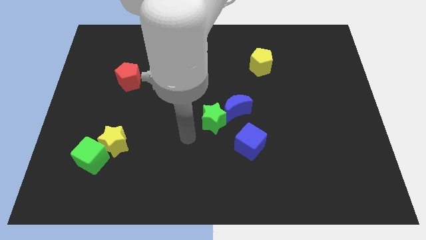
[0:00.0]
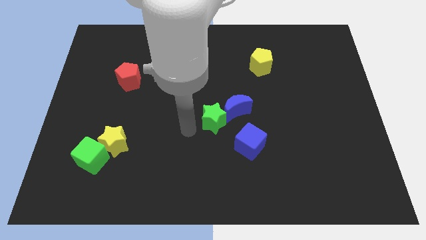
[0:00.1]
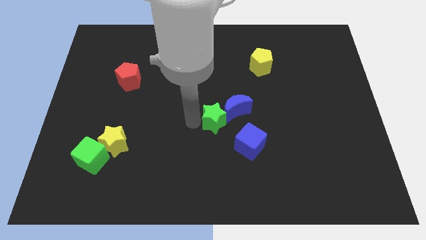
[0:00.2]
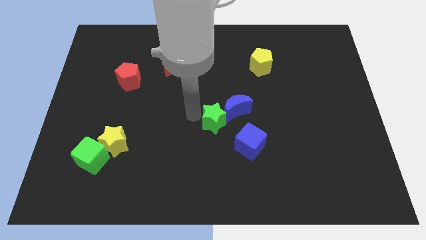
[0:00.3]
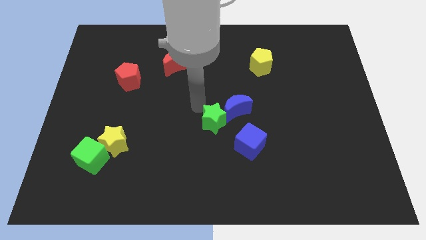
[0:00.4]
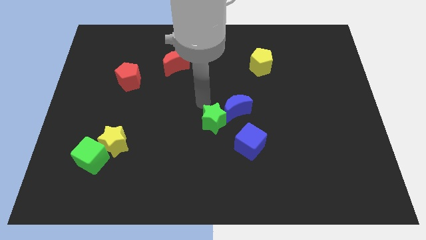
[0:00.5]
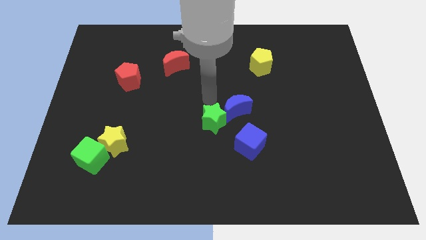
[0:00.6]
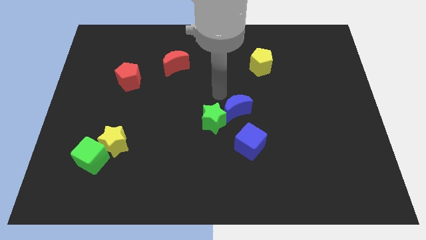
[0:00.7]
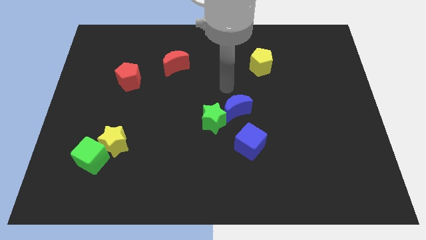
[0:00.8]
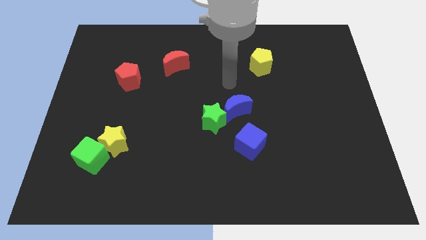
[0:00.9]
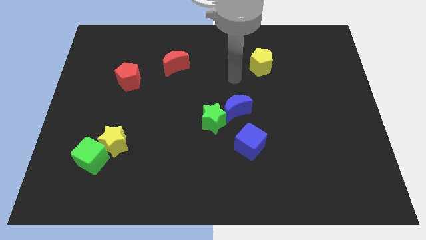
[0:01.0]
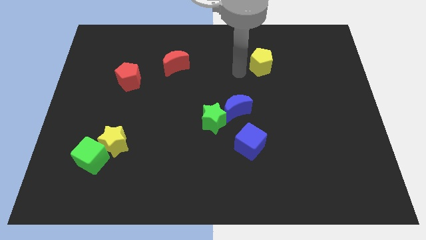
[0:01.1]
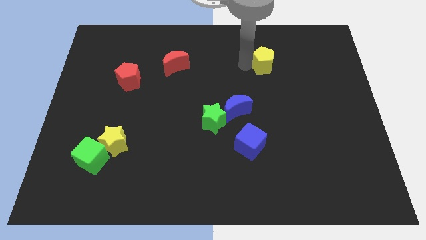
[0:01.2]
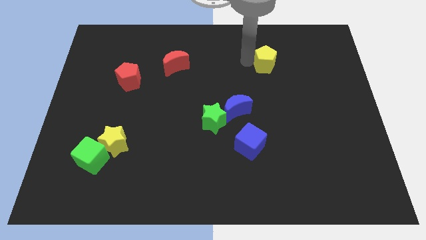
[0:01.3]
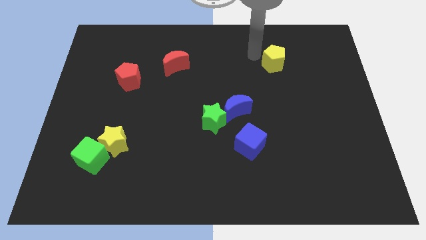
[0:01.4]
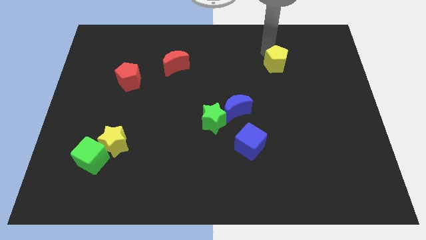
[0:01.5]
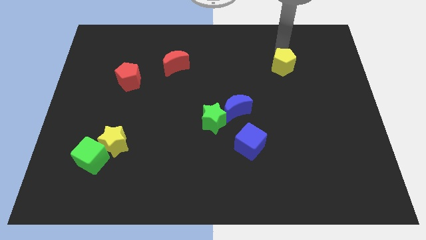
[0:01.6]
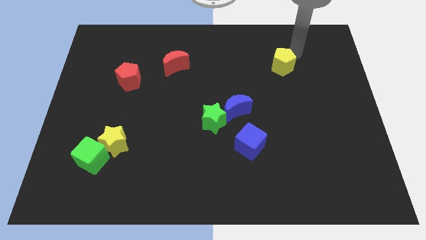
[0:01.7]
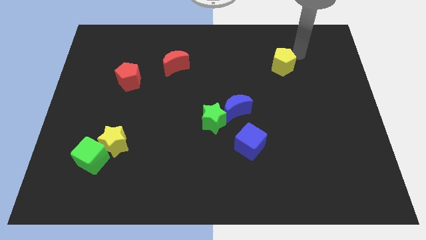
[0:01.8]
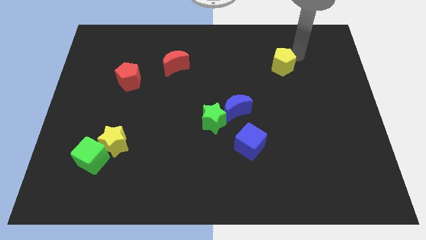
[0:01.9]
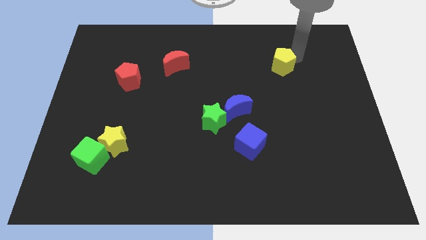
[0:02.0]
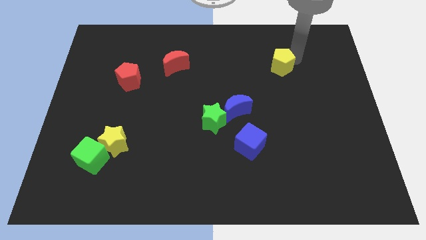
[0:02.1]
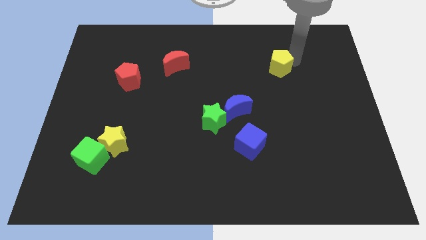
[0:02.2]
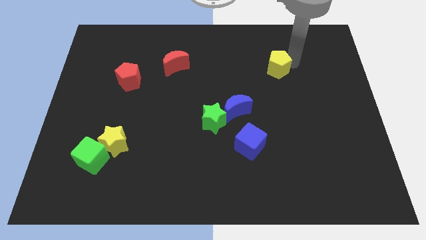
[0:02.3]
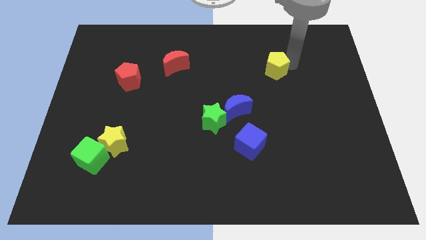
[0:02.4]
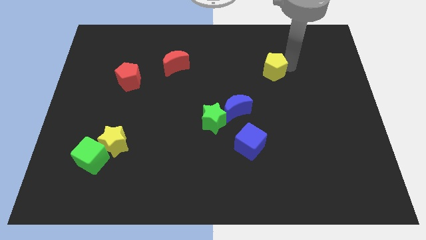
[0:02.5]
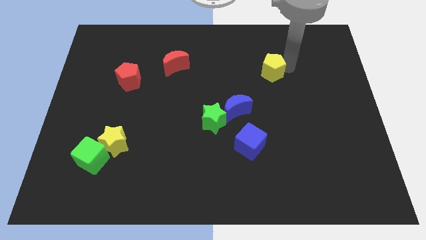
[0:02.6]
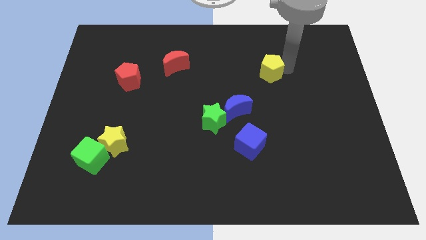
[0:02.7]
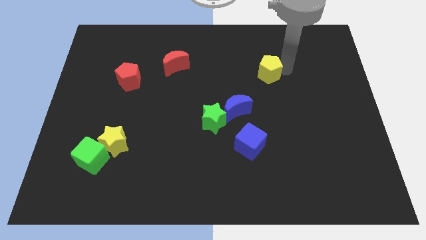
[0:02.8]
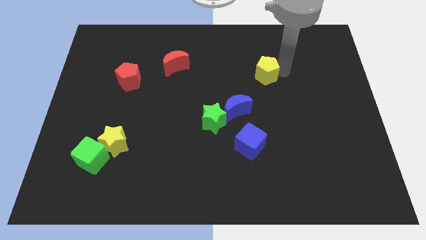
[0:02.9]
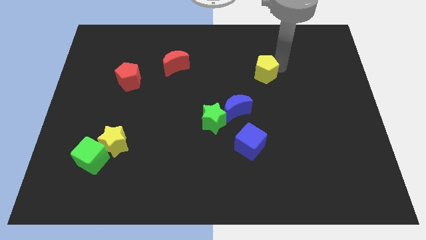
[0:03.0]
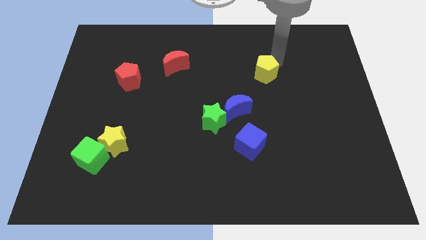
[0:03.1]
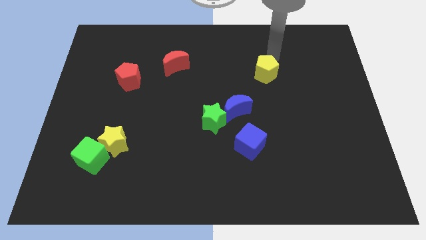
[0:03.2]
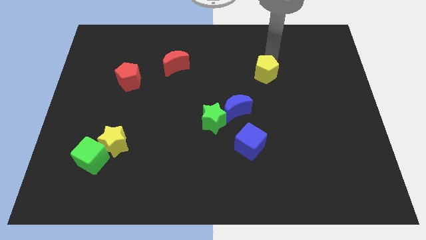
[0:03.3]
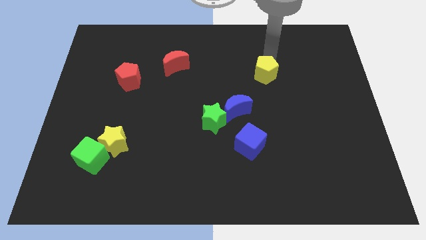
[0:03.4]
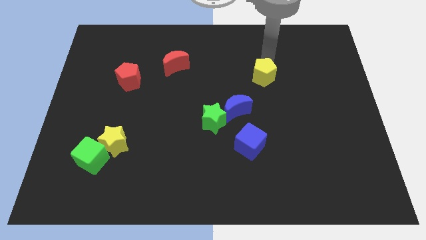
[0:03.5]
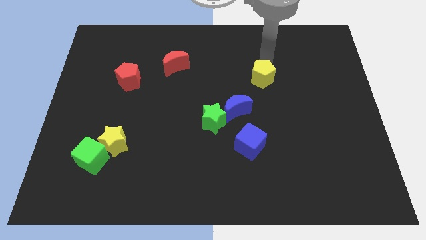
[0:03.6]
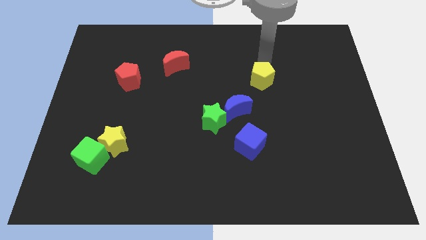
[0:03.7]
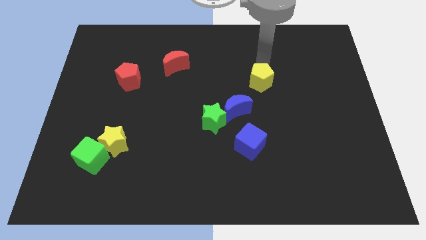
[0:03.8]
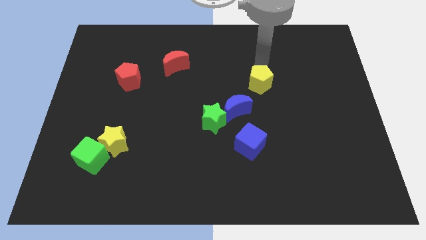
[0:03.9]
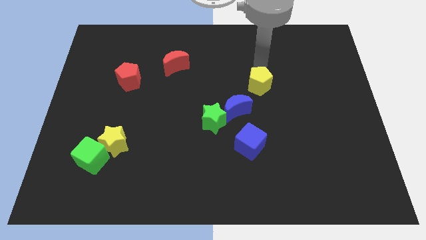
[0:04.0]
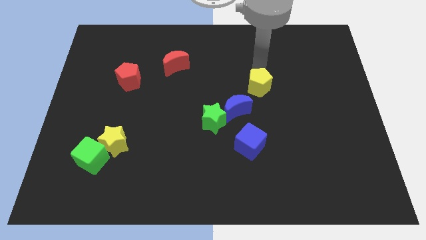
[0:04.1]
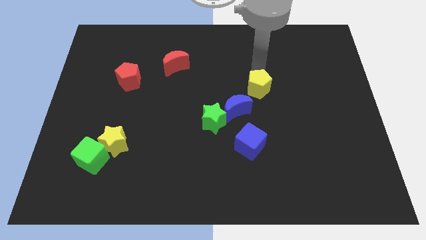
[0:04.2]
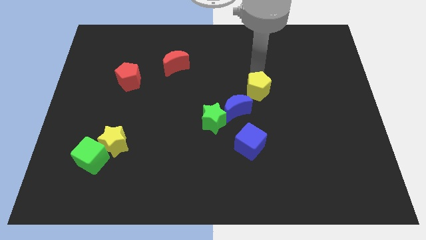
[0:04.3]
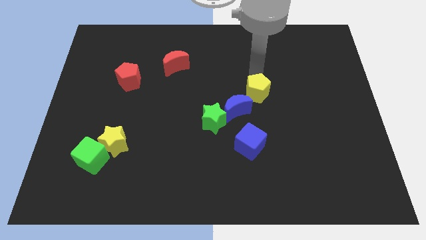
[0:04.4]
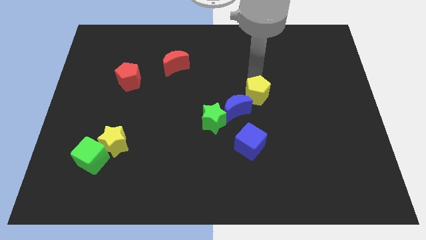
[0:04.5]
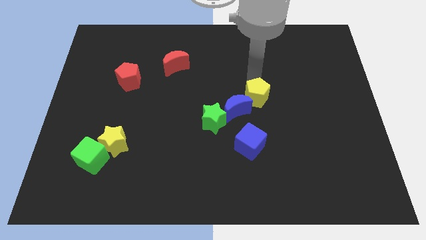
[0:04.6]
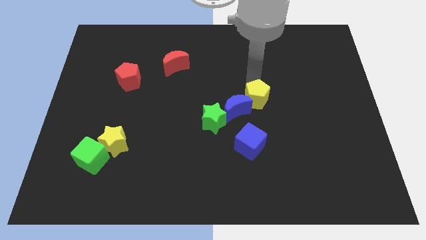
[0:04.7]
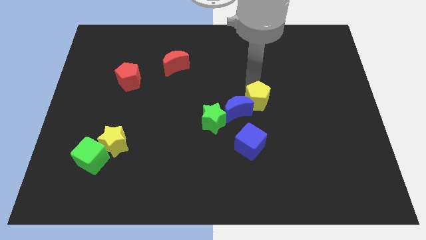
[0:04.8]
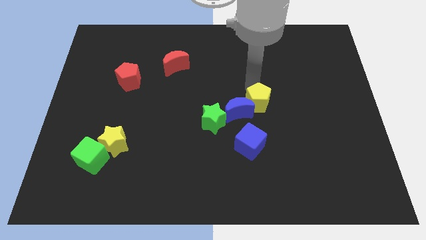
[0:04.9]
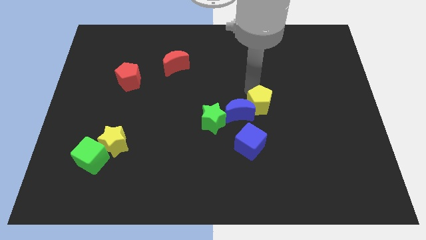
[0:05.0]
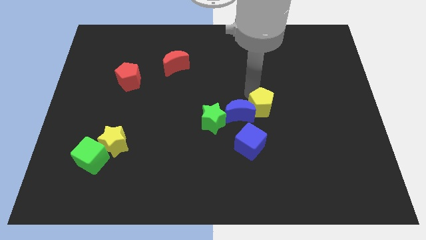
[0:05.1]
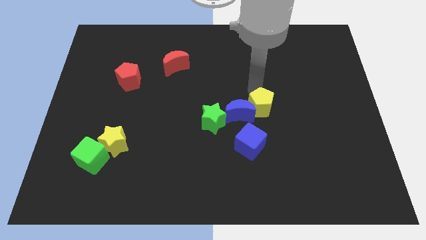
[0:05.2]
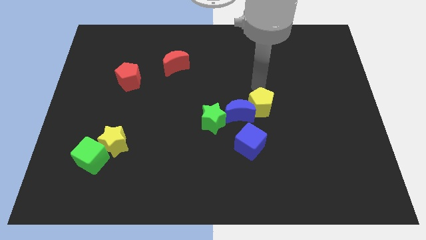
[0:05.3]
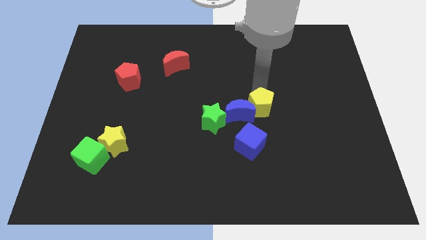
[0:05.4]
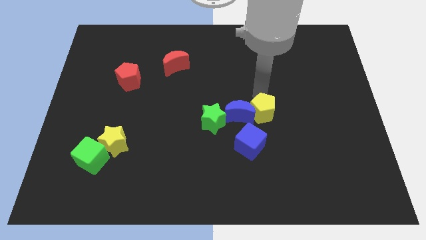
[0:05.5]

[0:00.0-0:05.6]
move the yellow pentagon diagonally down and to the right of the blue moon

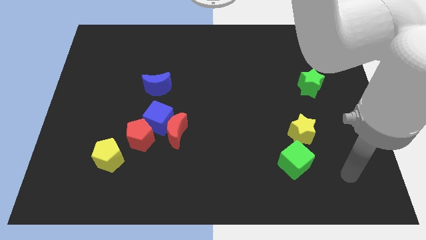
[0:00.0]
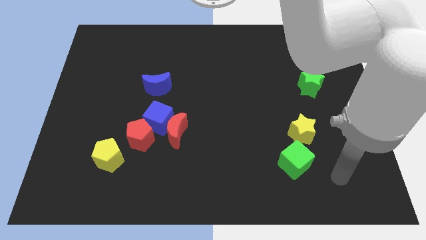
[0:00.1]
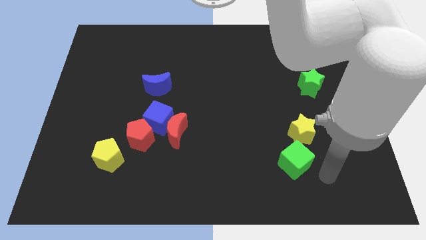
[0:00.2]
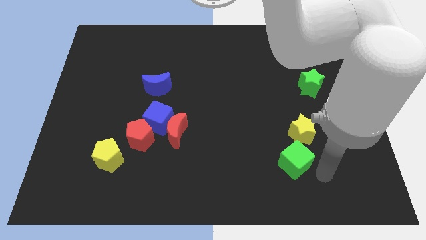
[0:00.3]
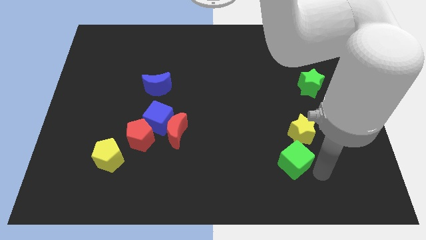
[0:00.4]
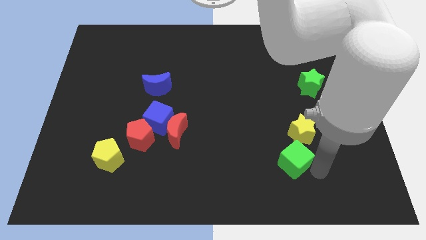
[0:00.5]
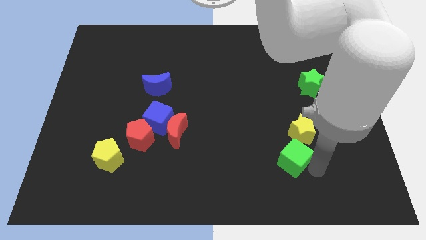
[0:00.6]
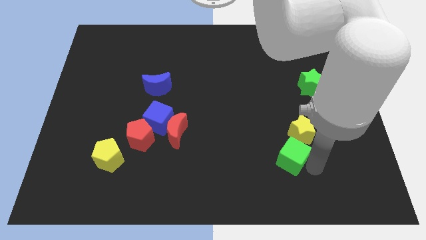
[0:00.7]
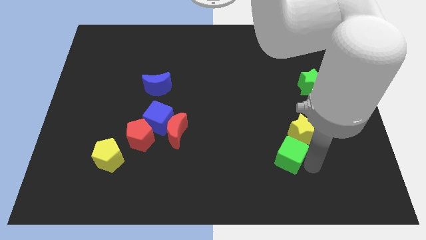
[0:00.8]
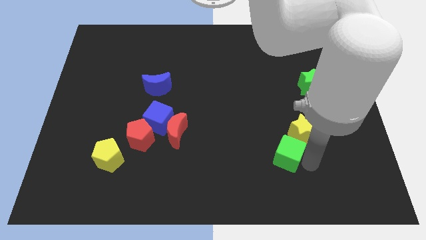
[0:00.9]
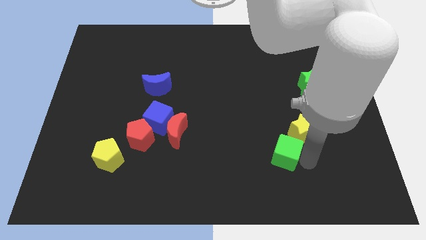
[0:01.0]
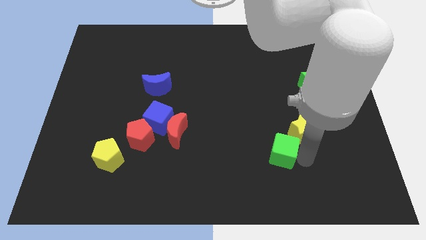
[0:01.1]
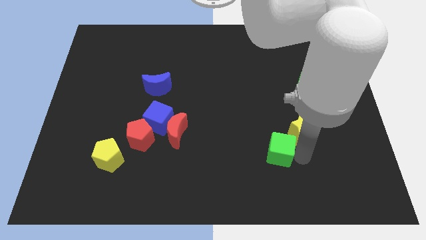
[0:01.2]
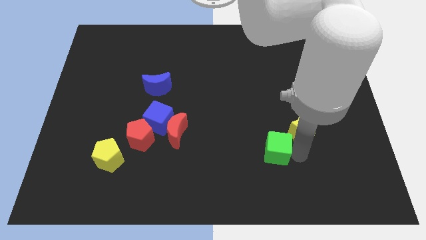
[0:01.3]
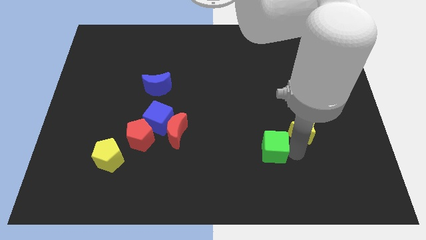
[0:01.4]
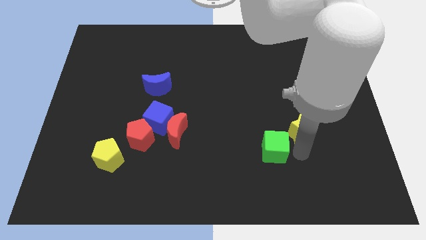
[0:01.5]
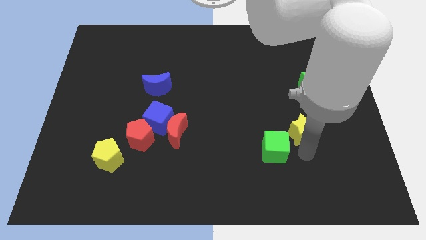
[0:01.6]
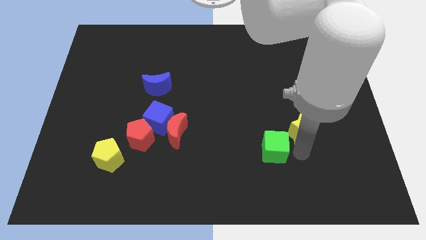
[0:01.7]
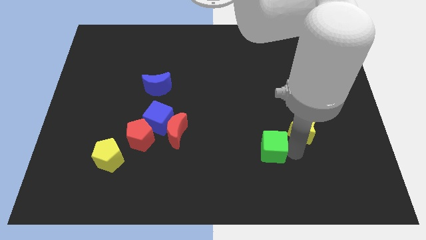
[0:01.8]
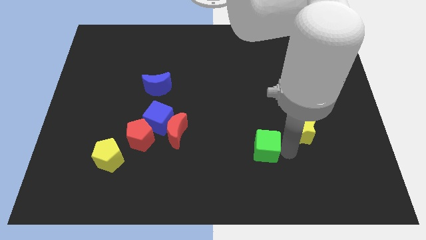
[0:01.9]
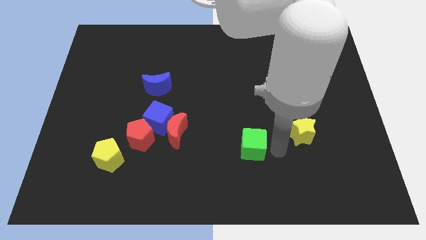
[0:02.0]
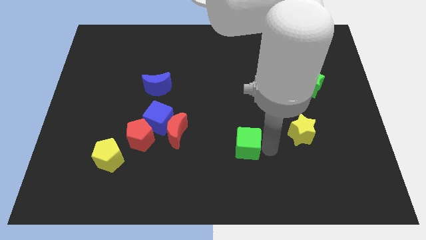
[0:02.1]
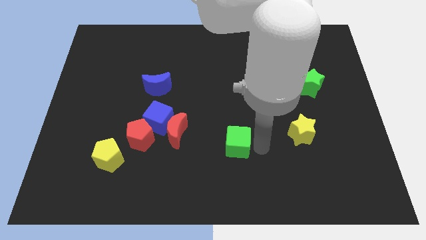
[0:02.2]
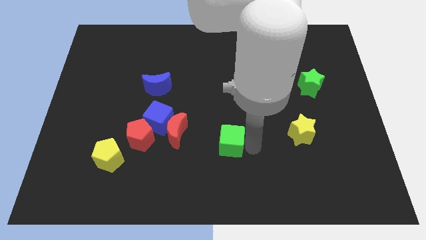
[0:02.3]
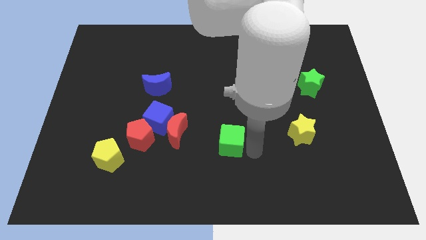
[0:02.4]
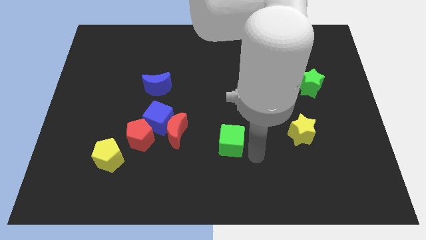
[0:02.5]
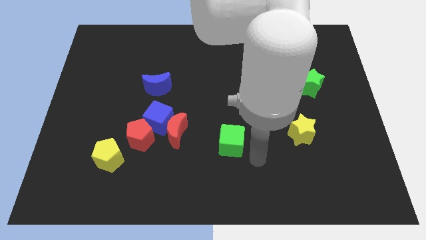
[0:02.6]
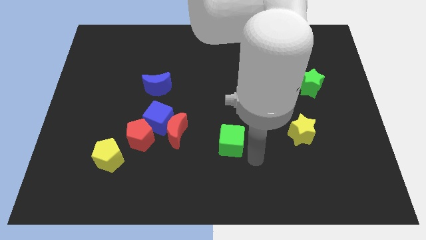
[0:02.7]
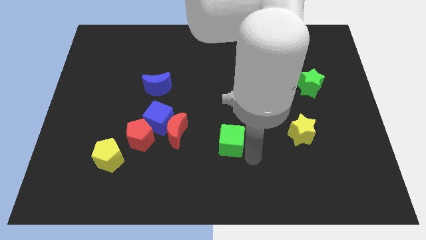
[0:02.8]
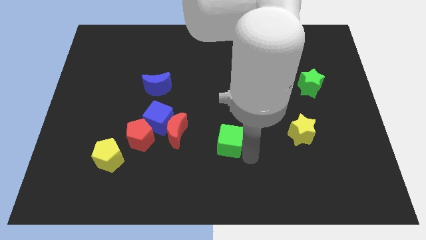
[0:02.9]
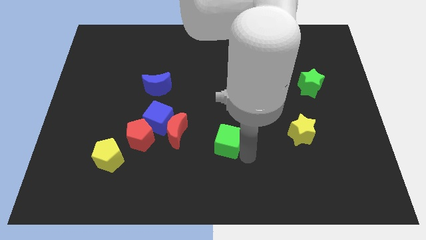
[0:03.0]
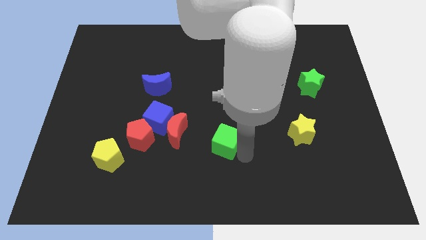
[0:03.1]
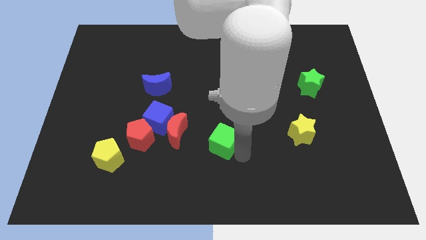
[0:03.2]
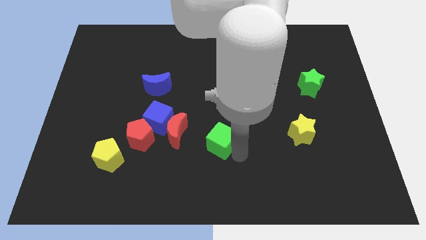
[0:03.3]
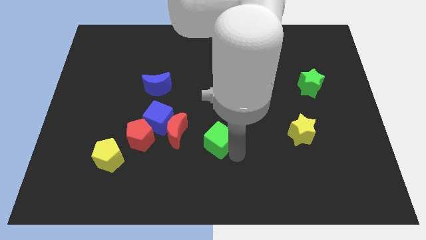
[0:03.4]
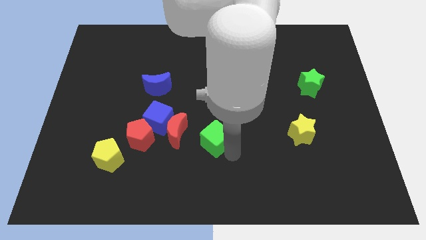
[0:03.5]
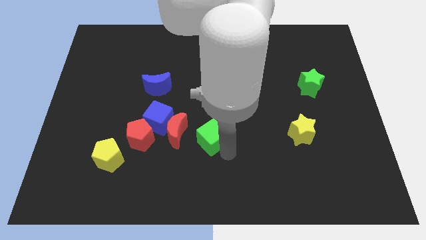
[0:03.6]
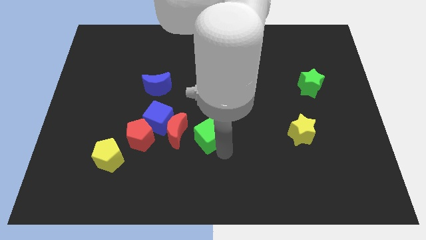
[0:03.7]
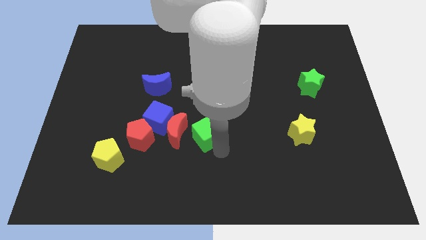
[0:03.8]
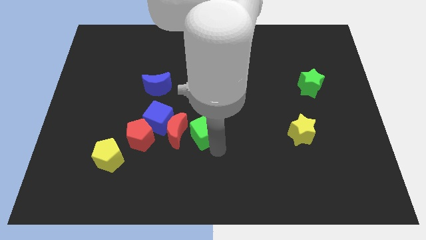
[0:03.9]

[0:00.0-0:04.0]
put the green cube to the top right side of the red moon
